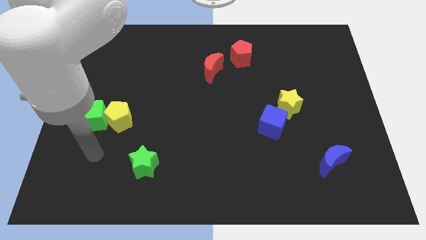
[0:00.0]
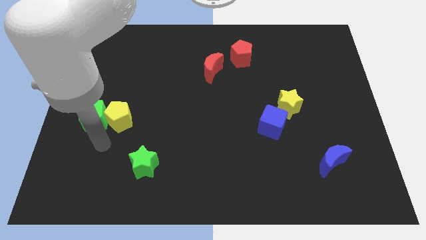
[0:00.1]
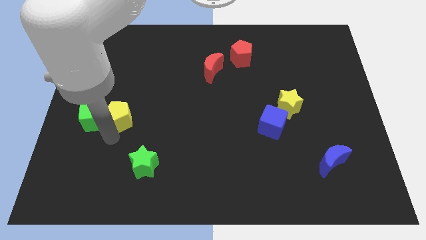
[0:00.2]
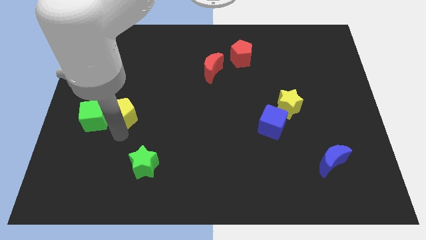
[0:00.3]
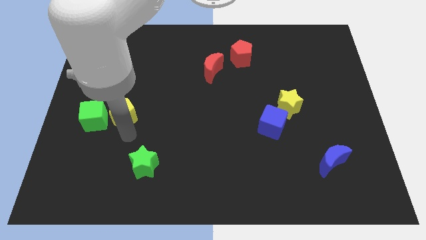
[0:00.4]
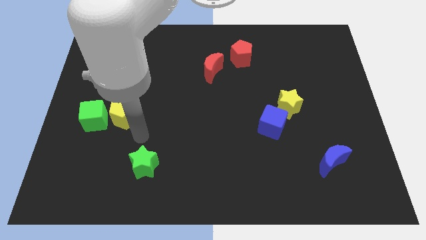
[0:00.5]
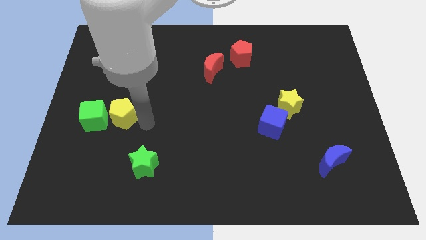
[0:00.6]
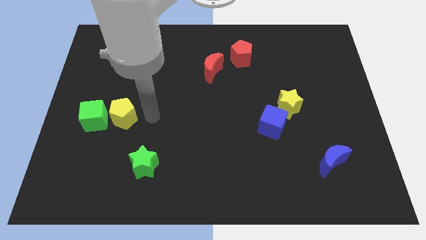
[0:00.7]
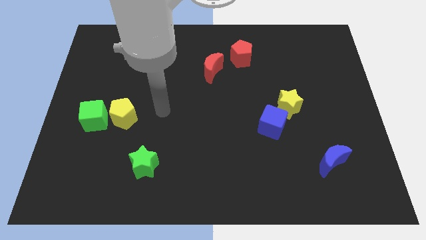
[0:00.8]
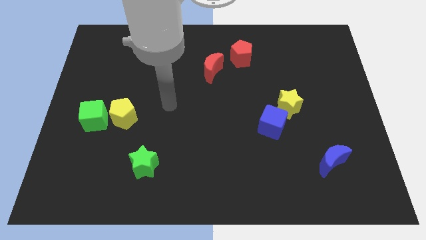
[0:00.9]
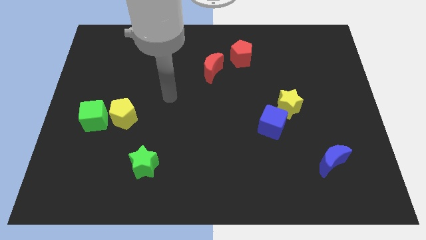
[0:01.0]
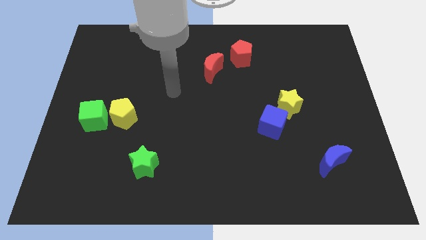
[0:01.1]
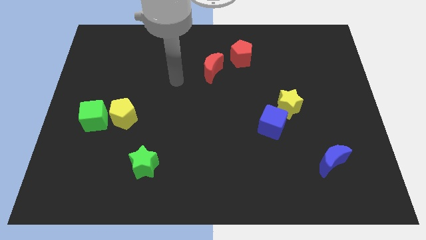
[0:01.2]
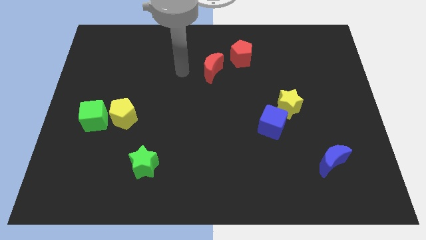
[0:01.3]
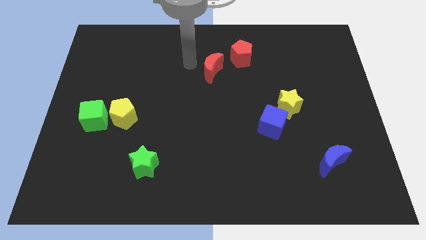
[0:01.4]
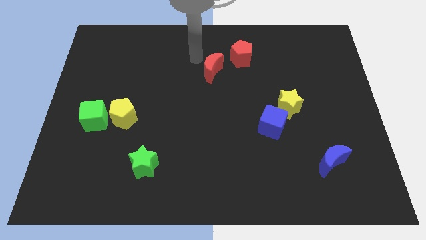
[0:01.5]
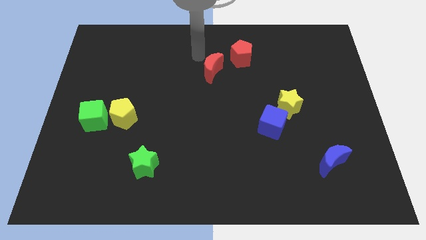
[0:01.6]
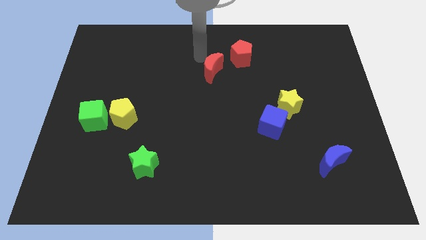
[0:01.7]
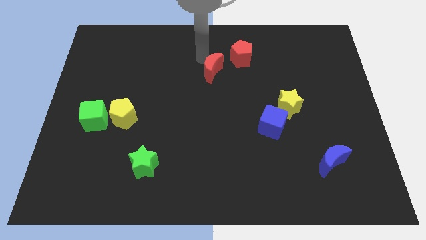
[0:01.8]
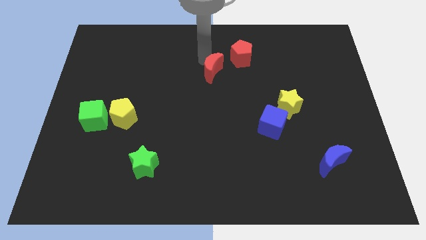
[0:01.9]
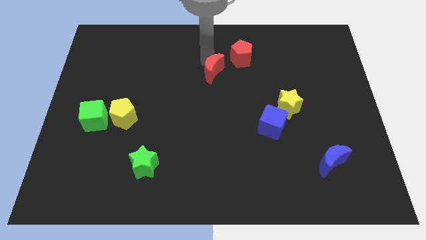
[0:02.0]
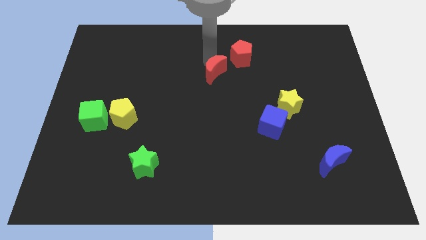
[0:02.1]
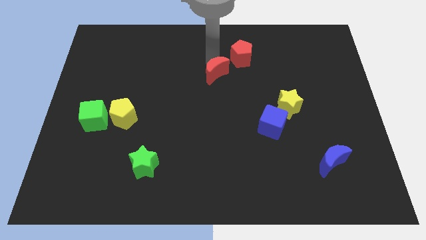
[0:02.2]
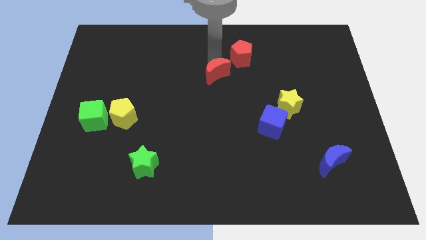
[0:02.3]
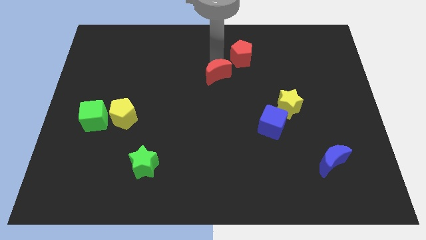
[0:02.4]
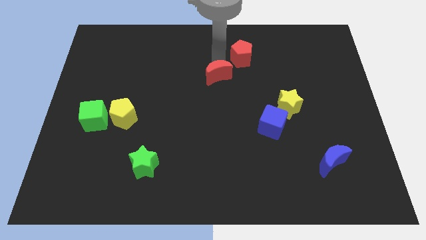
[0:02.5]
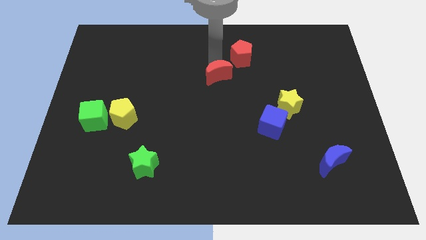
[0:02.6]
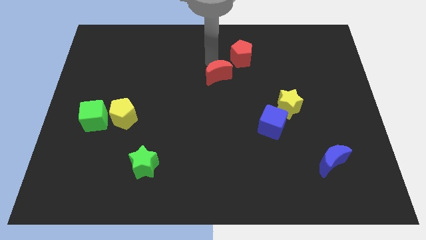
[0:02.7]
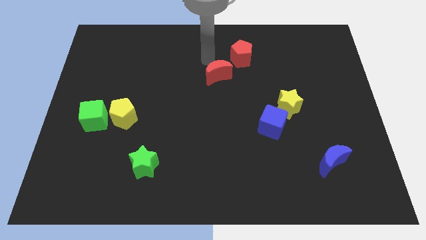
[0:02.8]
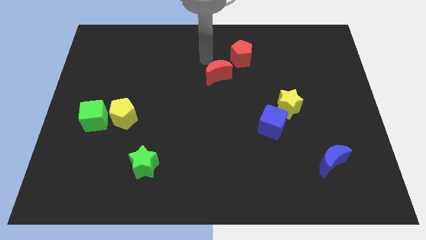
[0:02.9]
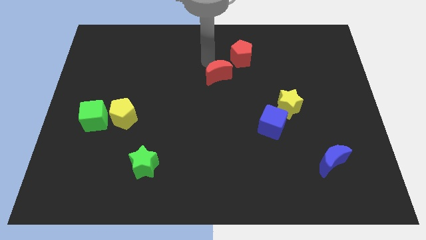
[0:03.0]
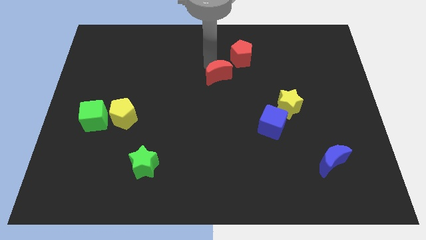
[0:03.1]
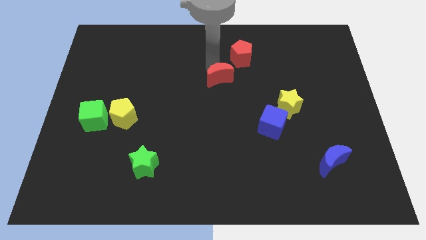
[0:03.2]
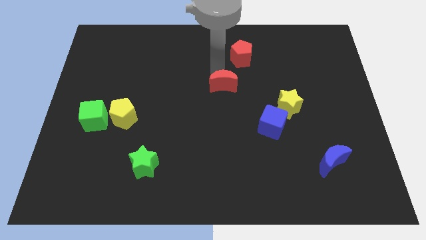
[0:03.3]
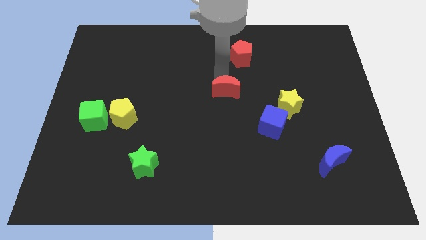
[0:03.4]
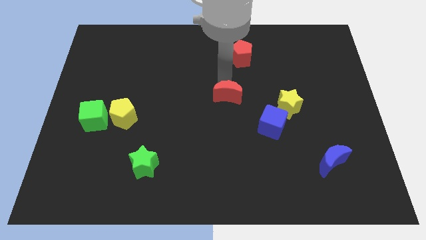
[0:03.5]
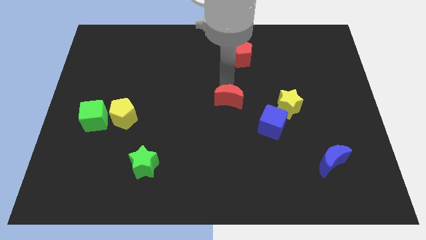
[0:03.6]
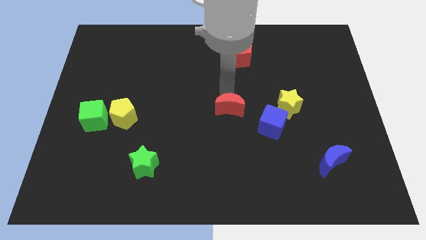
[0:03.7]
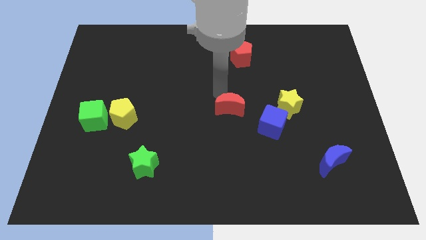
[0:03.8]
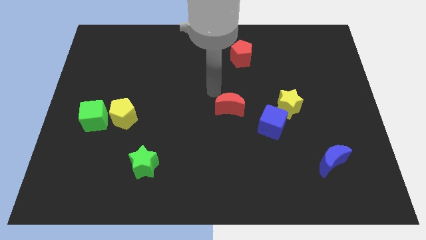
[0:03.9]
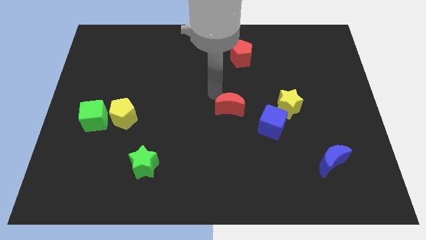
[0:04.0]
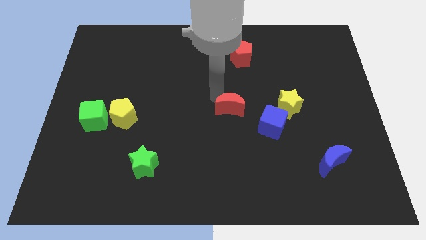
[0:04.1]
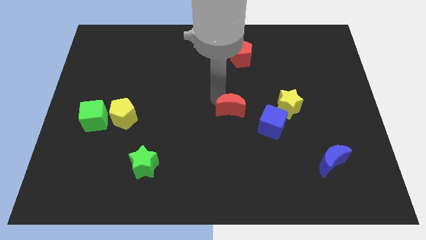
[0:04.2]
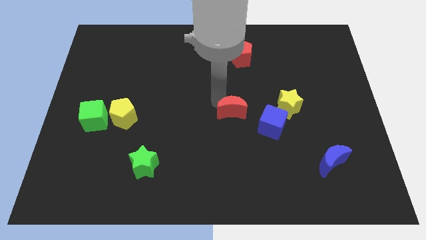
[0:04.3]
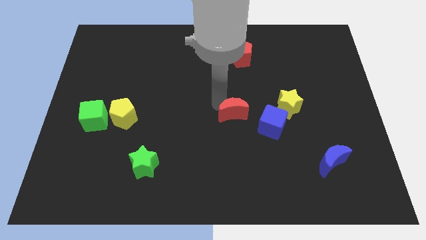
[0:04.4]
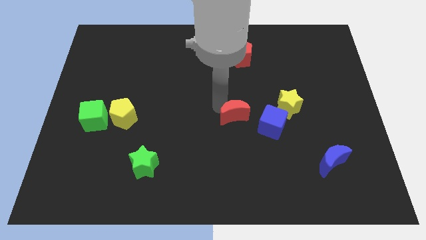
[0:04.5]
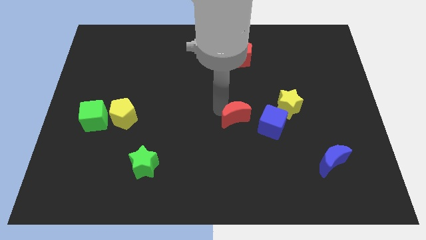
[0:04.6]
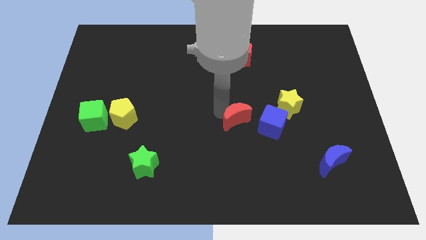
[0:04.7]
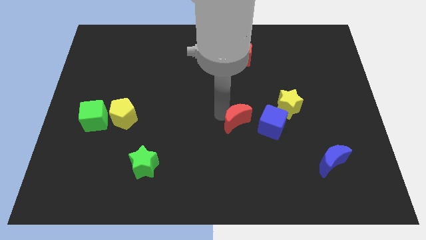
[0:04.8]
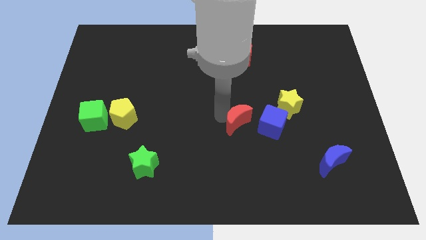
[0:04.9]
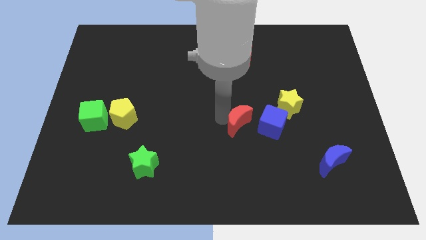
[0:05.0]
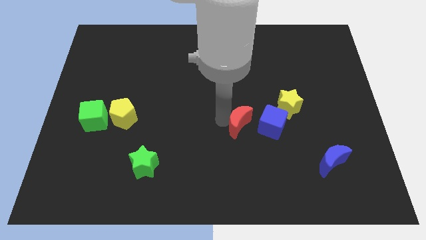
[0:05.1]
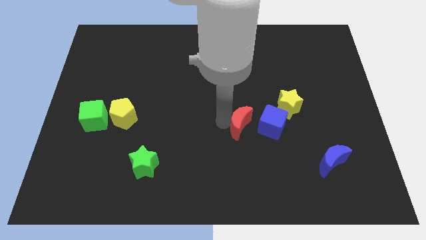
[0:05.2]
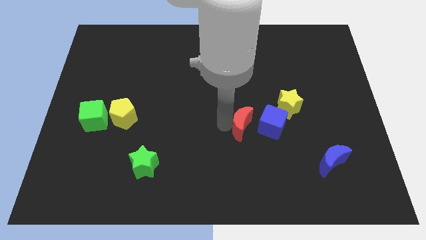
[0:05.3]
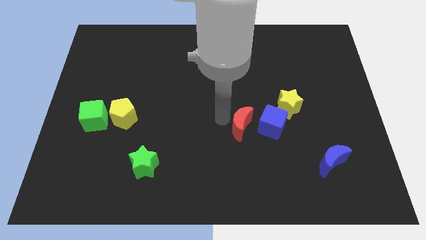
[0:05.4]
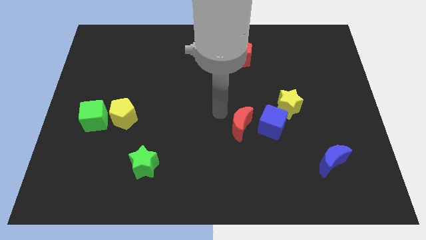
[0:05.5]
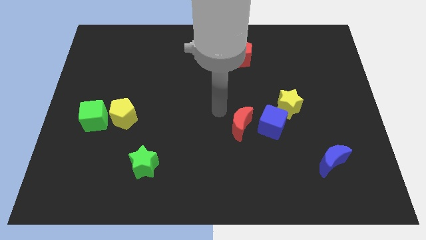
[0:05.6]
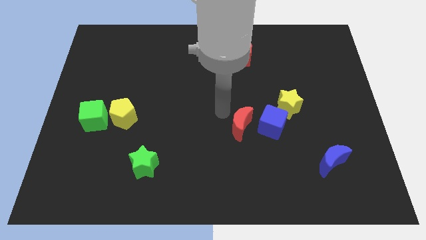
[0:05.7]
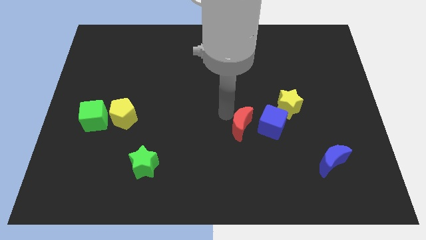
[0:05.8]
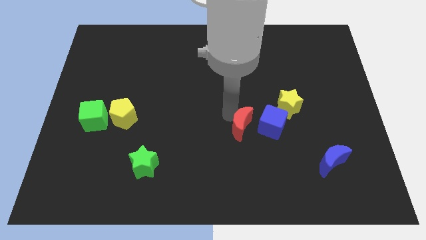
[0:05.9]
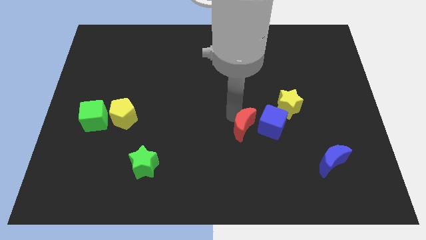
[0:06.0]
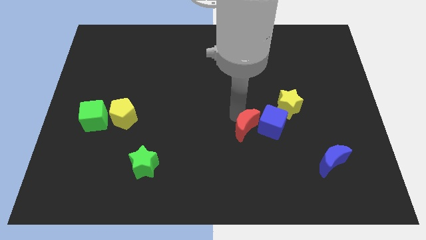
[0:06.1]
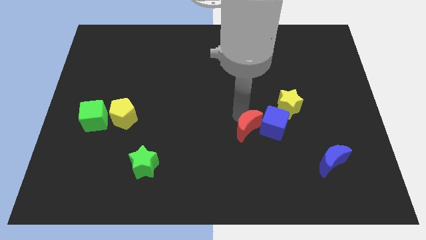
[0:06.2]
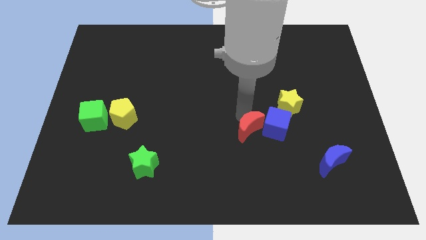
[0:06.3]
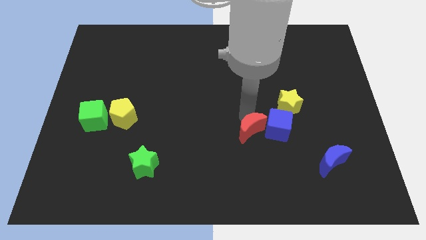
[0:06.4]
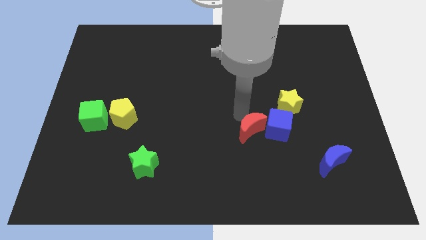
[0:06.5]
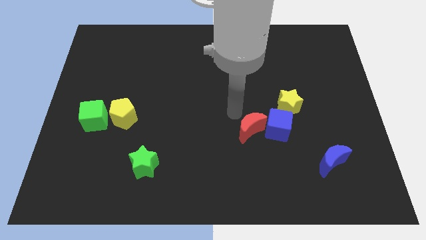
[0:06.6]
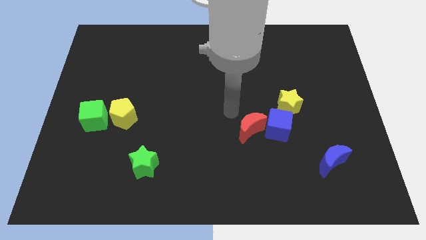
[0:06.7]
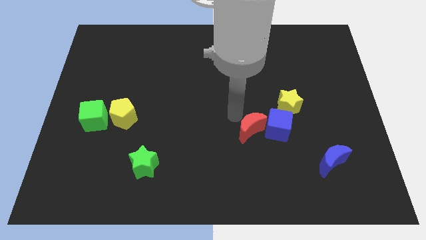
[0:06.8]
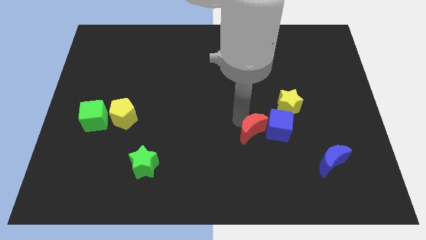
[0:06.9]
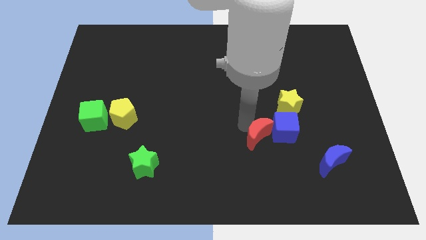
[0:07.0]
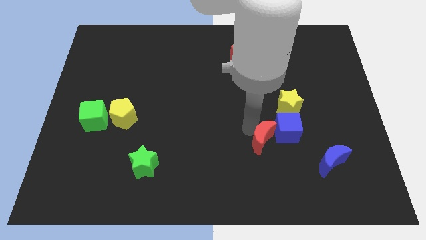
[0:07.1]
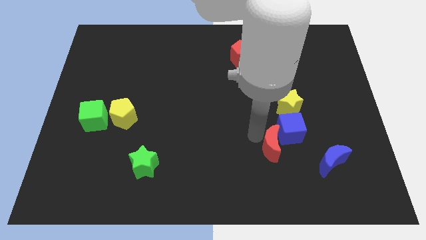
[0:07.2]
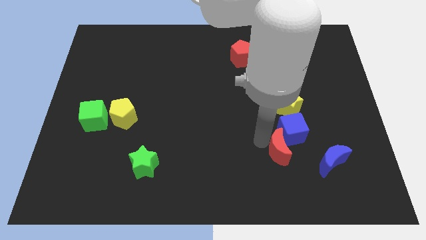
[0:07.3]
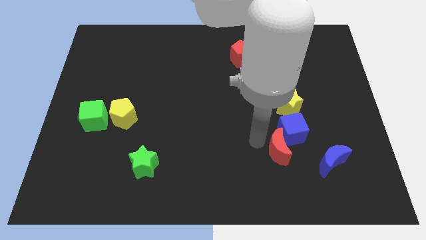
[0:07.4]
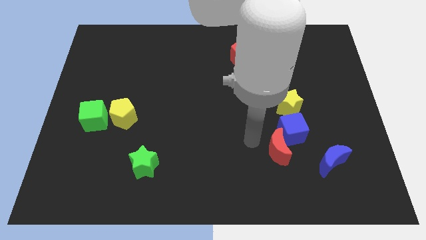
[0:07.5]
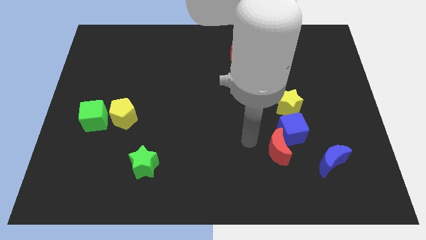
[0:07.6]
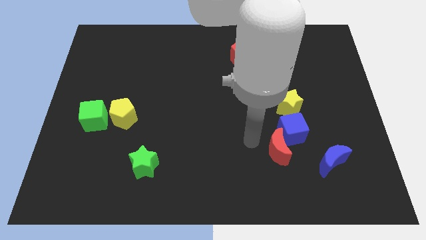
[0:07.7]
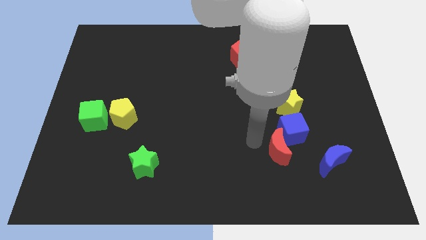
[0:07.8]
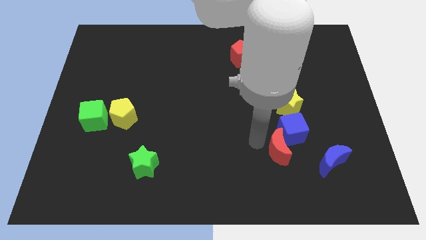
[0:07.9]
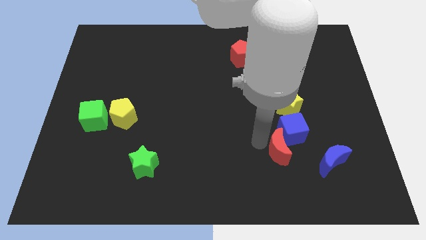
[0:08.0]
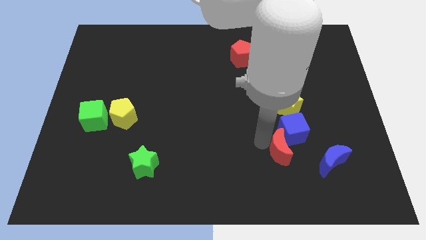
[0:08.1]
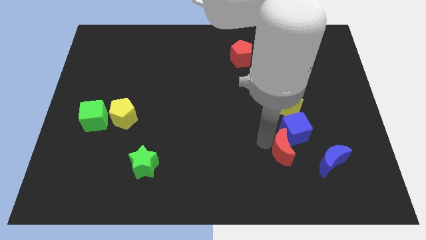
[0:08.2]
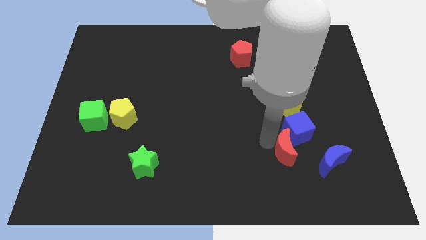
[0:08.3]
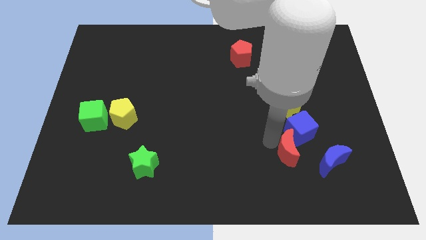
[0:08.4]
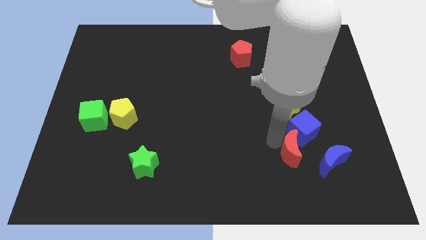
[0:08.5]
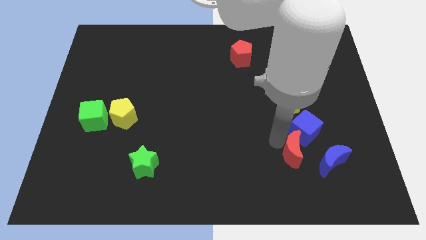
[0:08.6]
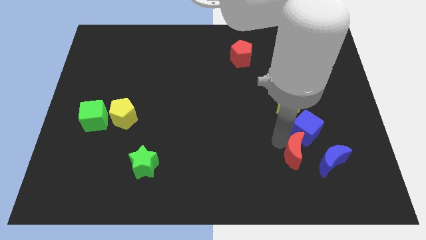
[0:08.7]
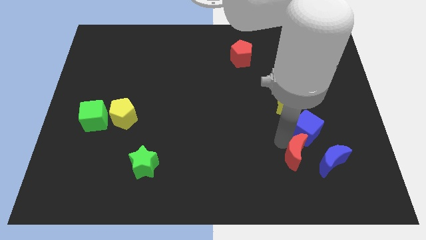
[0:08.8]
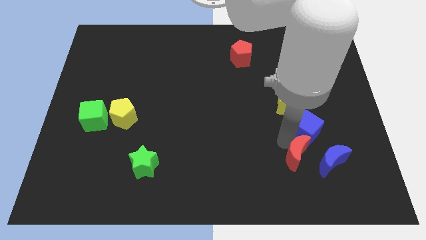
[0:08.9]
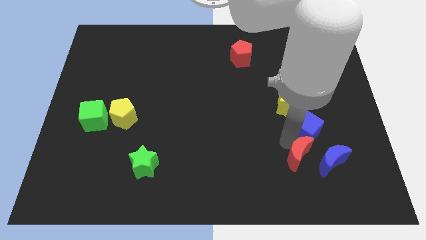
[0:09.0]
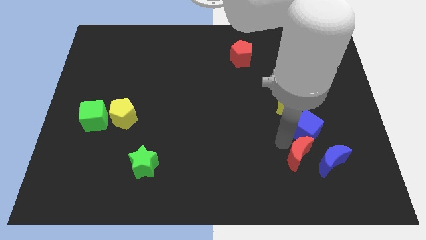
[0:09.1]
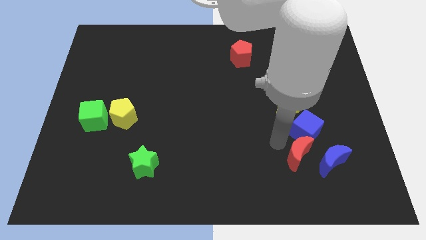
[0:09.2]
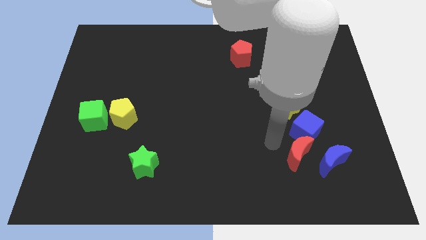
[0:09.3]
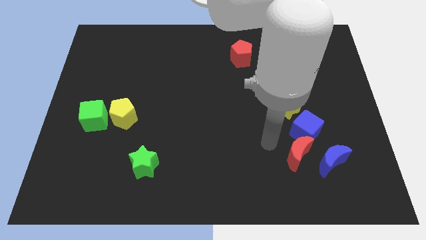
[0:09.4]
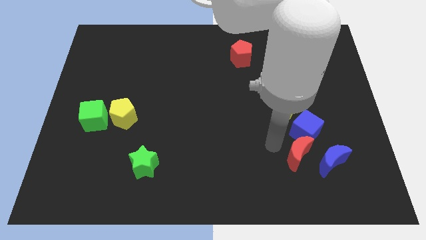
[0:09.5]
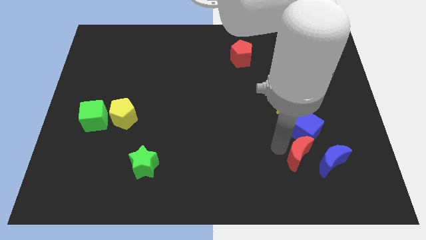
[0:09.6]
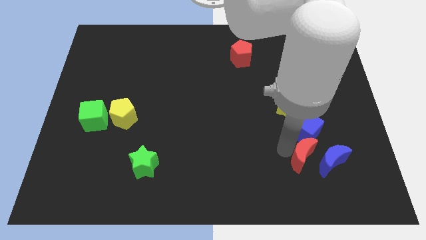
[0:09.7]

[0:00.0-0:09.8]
put the red moon close to the blue moon
